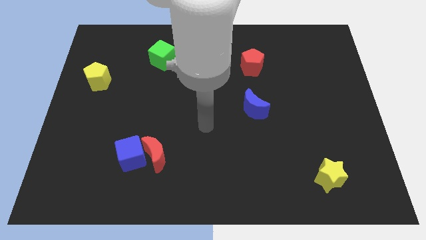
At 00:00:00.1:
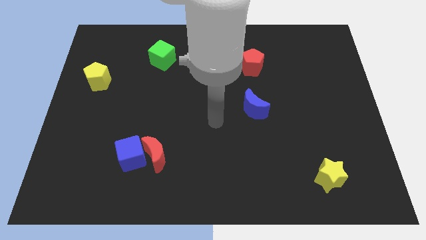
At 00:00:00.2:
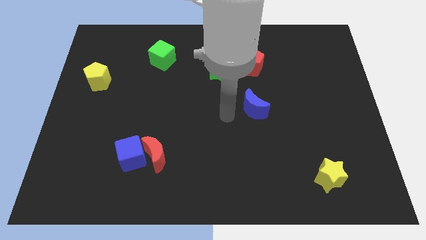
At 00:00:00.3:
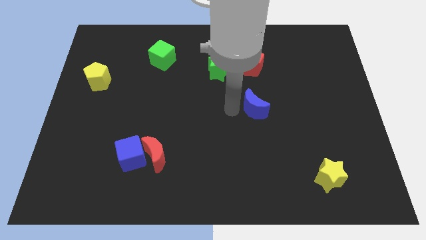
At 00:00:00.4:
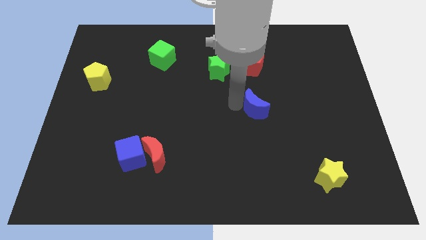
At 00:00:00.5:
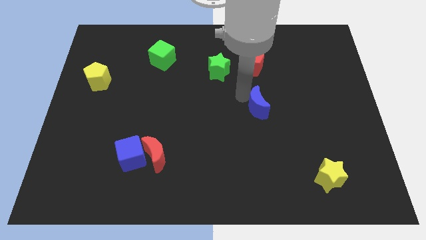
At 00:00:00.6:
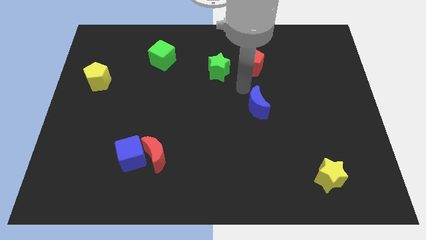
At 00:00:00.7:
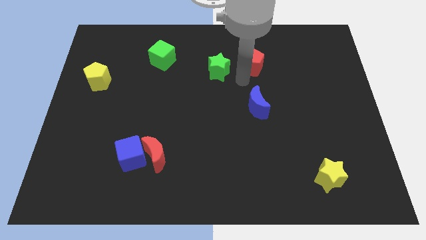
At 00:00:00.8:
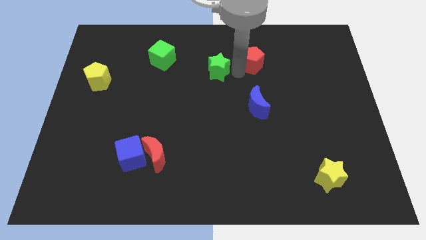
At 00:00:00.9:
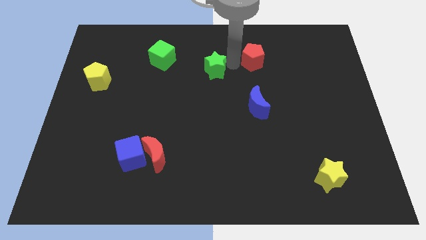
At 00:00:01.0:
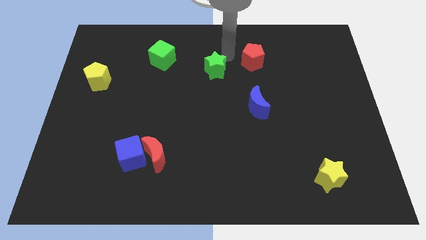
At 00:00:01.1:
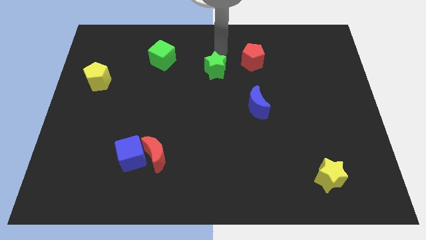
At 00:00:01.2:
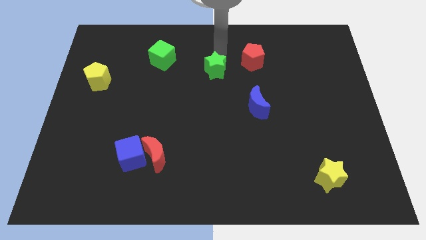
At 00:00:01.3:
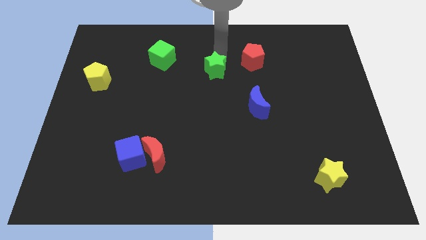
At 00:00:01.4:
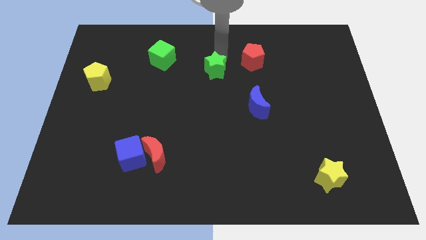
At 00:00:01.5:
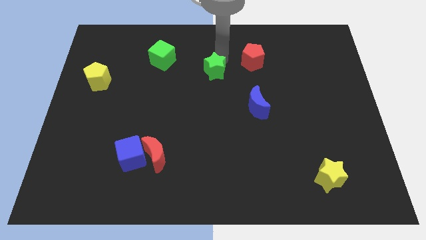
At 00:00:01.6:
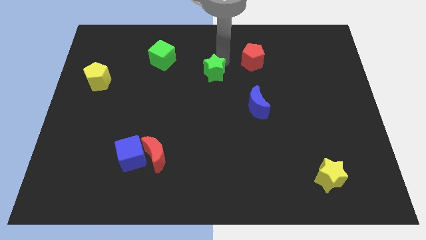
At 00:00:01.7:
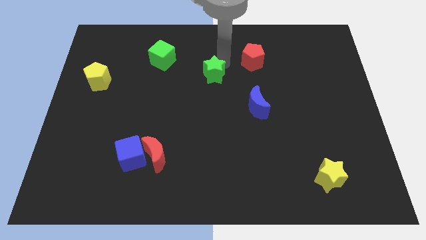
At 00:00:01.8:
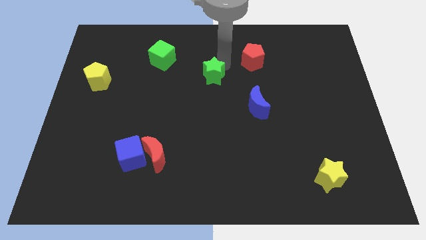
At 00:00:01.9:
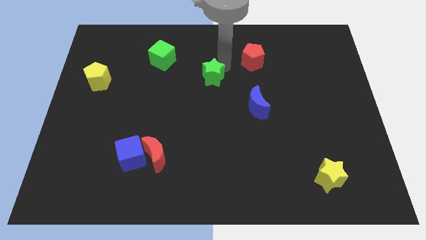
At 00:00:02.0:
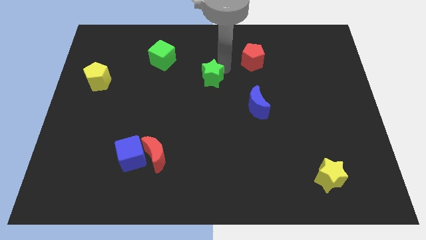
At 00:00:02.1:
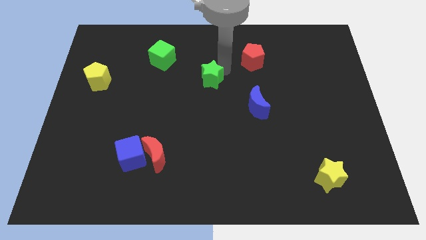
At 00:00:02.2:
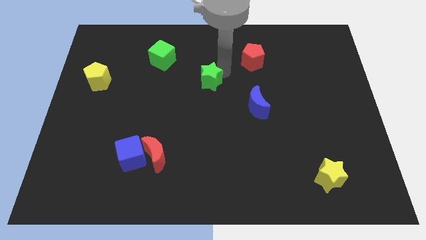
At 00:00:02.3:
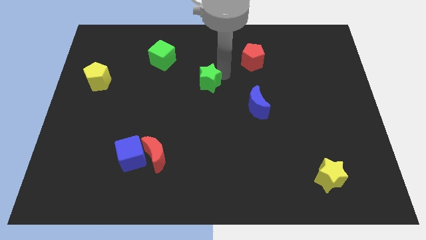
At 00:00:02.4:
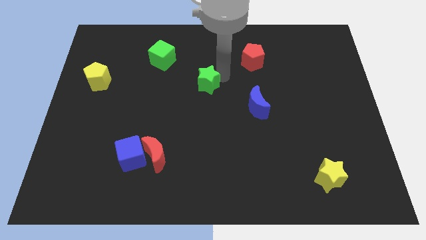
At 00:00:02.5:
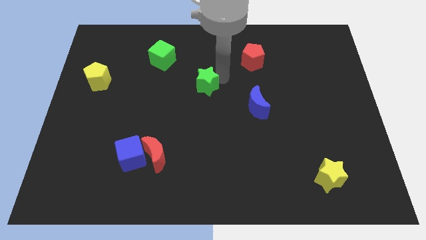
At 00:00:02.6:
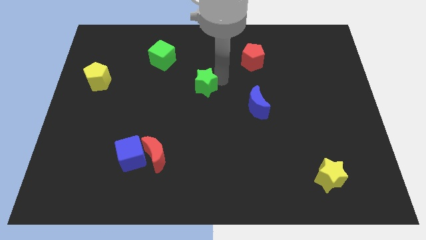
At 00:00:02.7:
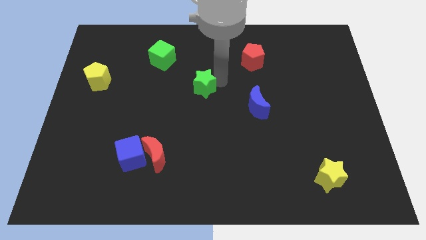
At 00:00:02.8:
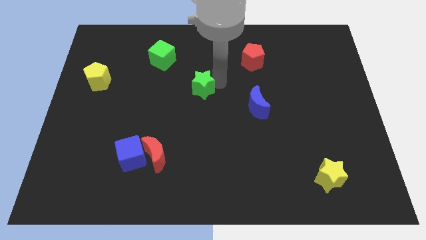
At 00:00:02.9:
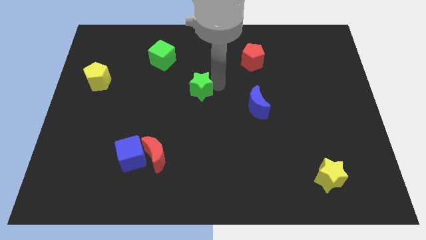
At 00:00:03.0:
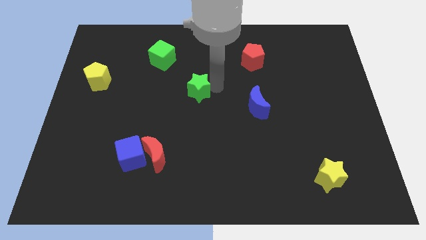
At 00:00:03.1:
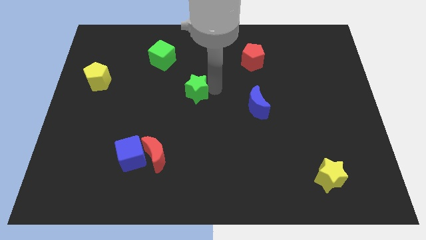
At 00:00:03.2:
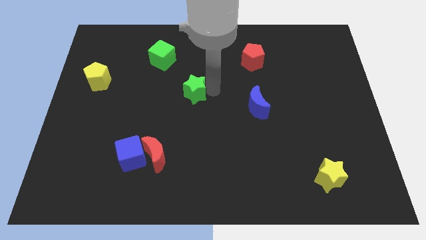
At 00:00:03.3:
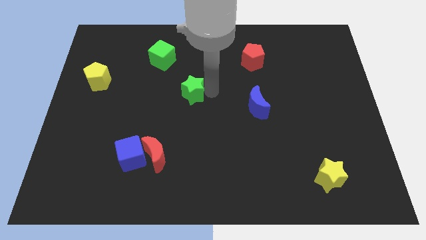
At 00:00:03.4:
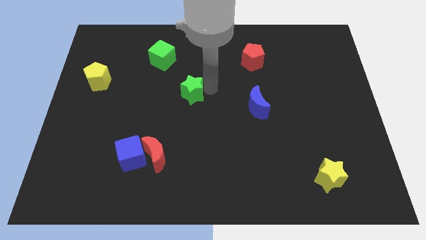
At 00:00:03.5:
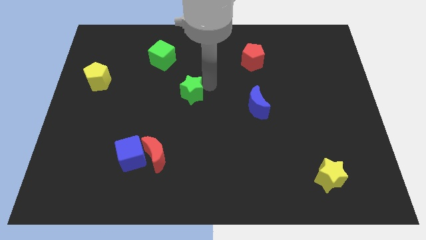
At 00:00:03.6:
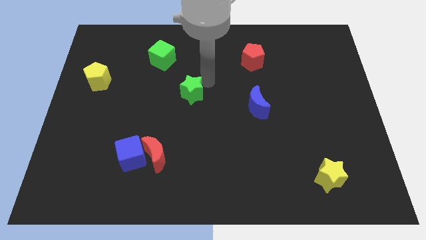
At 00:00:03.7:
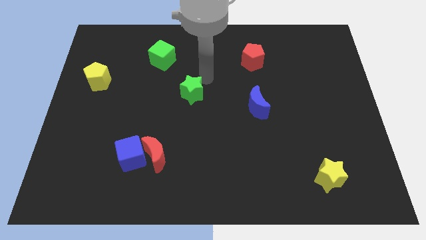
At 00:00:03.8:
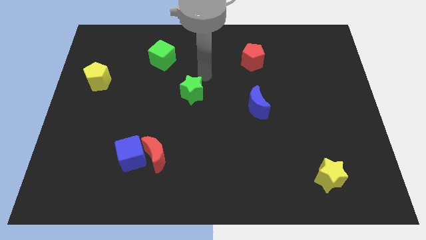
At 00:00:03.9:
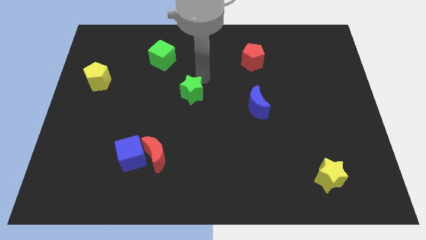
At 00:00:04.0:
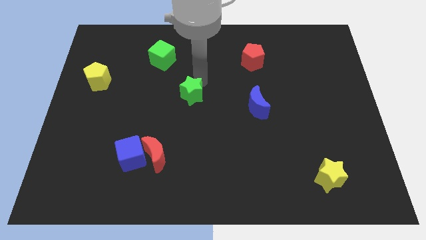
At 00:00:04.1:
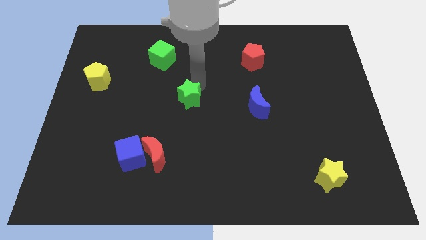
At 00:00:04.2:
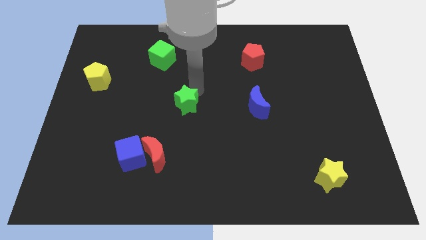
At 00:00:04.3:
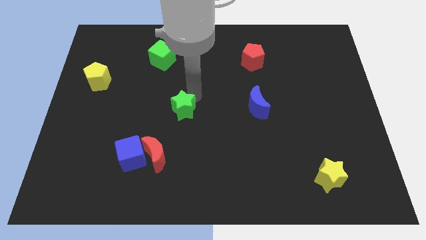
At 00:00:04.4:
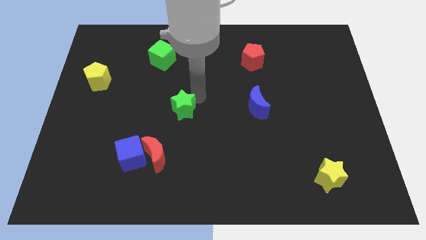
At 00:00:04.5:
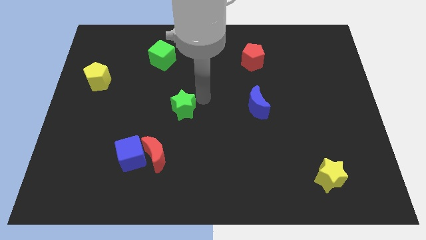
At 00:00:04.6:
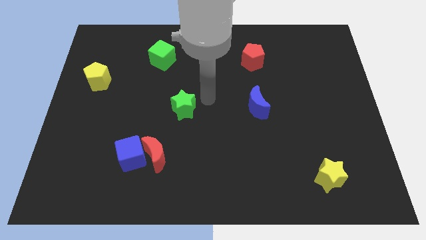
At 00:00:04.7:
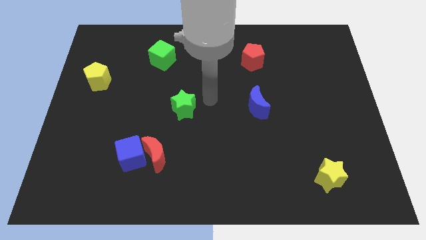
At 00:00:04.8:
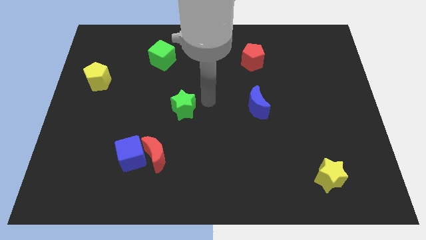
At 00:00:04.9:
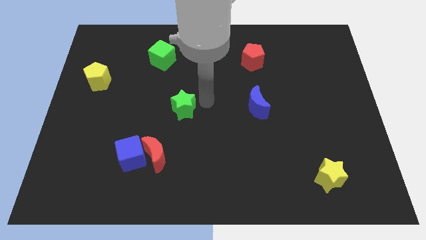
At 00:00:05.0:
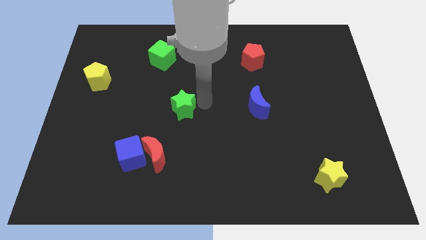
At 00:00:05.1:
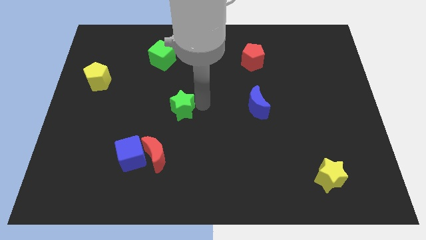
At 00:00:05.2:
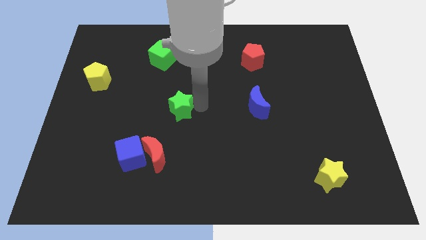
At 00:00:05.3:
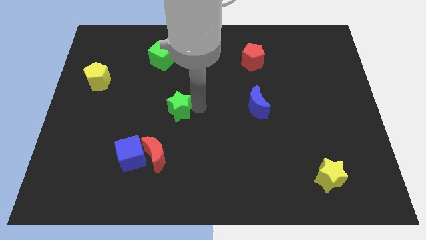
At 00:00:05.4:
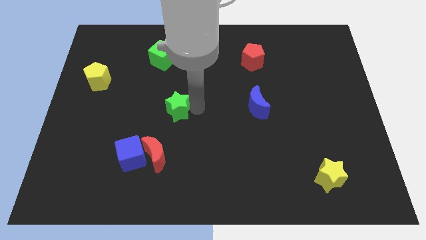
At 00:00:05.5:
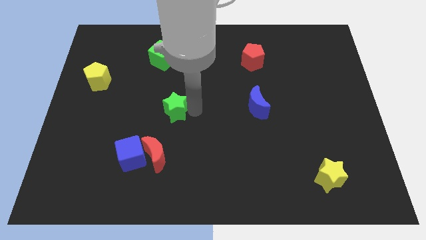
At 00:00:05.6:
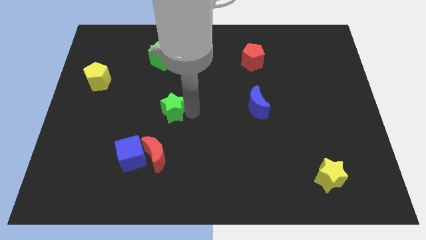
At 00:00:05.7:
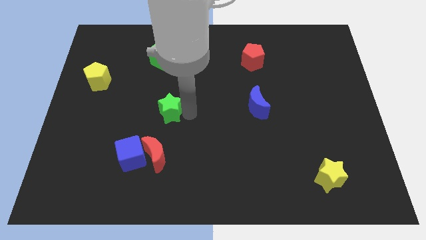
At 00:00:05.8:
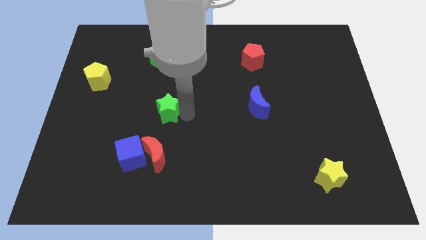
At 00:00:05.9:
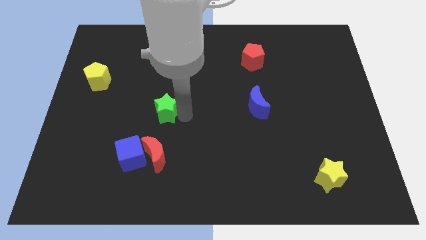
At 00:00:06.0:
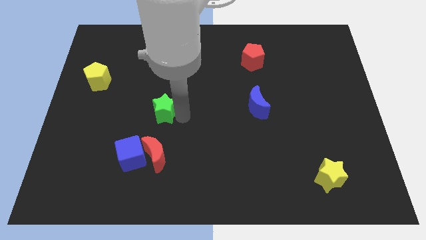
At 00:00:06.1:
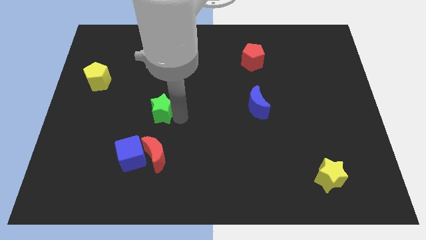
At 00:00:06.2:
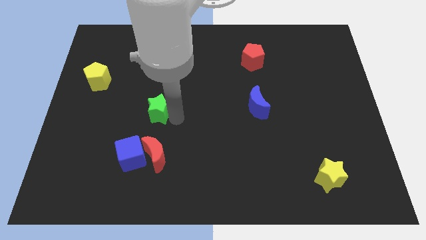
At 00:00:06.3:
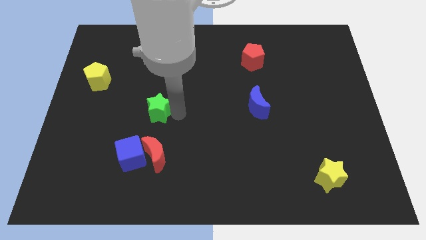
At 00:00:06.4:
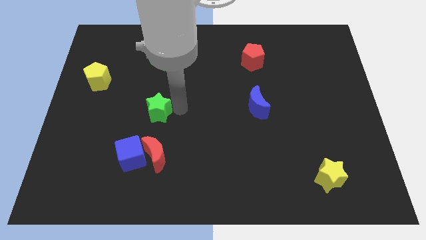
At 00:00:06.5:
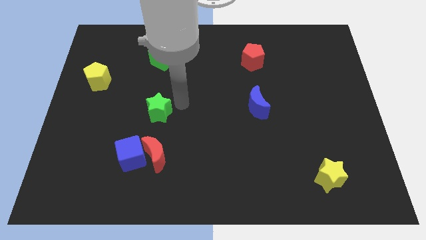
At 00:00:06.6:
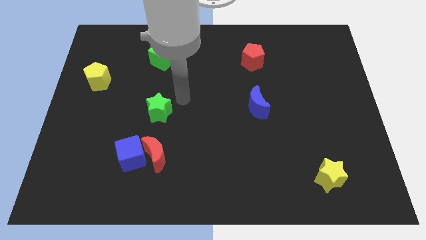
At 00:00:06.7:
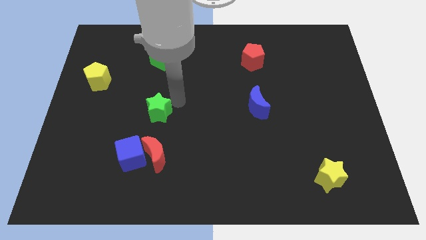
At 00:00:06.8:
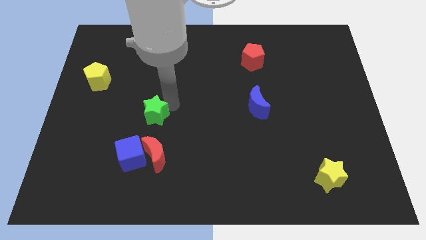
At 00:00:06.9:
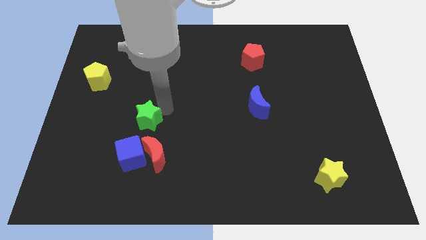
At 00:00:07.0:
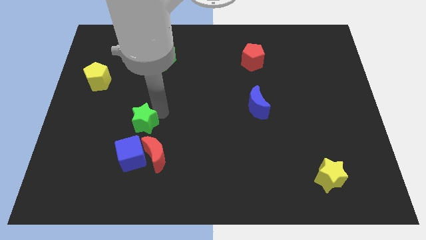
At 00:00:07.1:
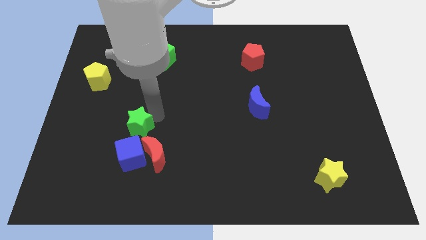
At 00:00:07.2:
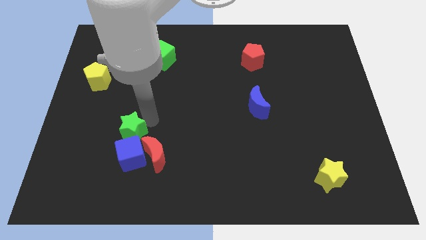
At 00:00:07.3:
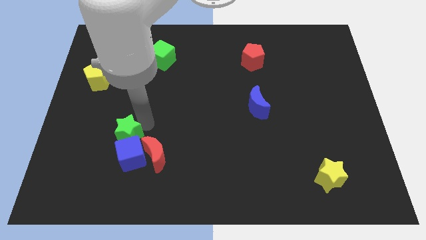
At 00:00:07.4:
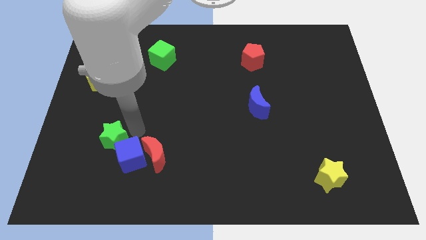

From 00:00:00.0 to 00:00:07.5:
move the green star to the left of the blue cube

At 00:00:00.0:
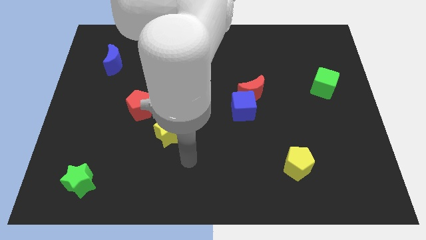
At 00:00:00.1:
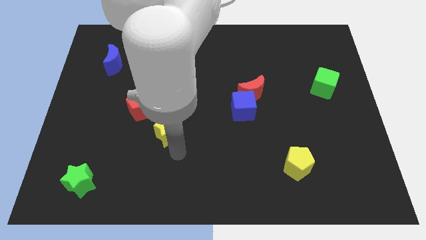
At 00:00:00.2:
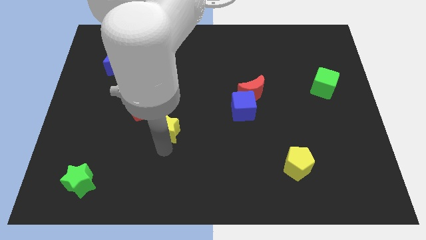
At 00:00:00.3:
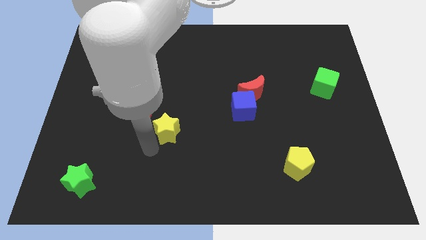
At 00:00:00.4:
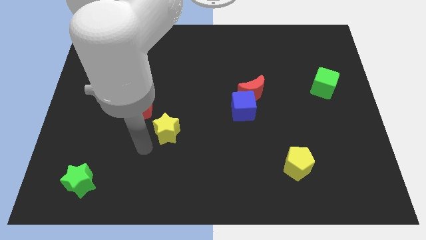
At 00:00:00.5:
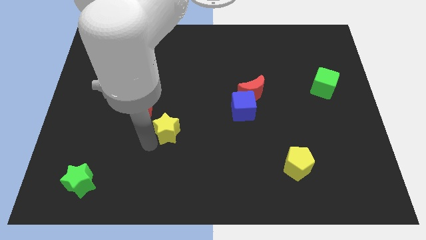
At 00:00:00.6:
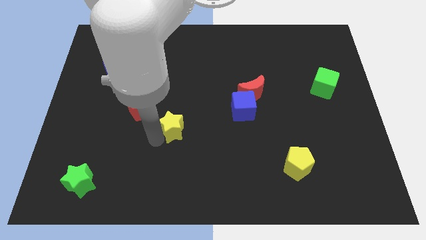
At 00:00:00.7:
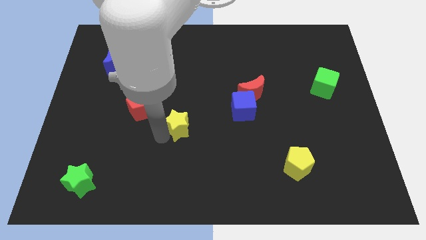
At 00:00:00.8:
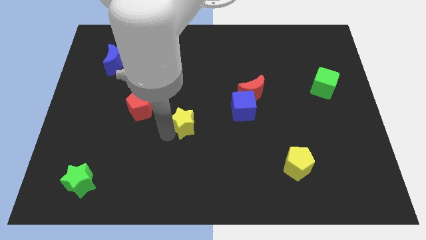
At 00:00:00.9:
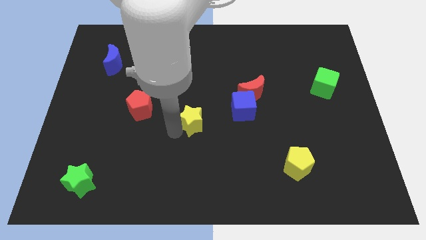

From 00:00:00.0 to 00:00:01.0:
push the yellow star just left of the blue cube
